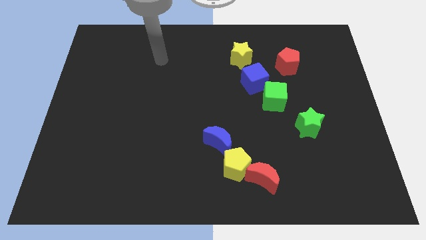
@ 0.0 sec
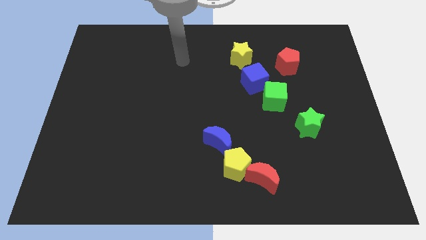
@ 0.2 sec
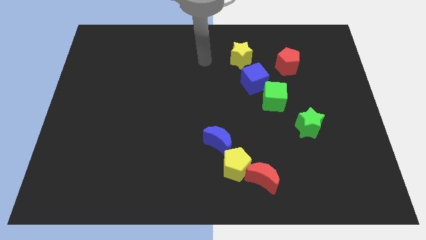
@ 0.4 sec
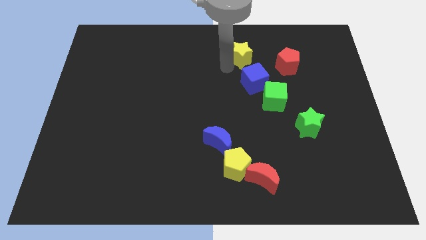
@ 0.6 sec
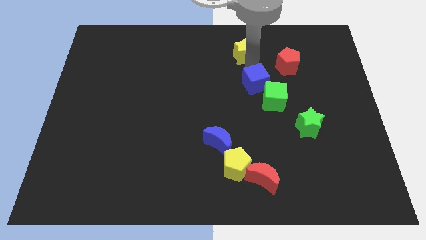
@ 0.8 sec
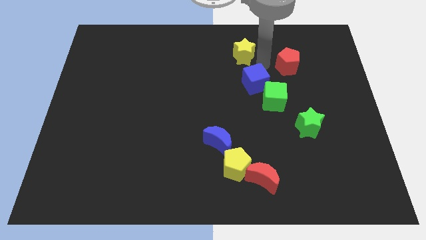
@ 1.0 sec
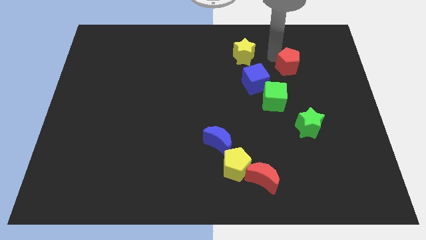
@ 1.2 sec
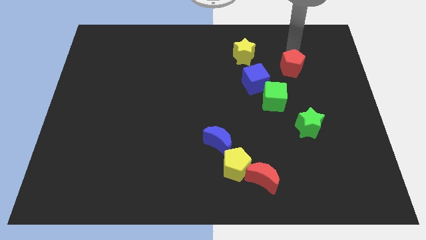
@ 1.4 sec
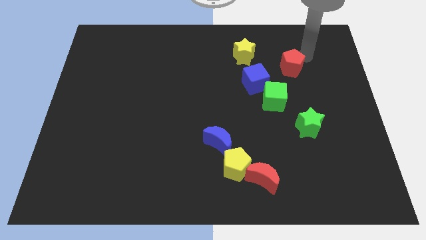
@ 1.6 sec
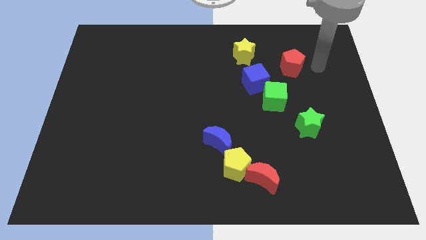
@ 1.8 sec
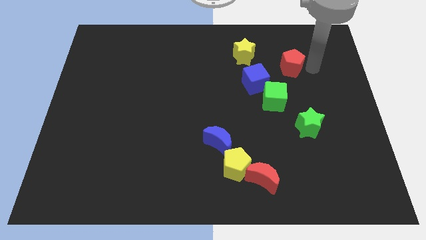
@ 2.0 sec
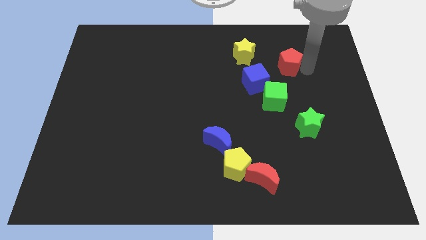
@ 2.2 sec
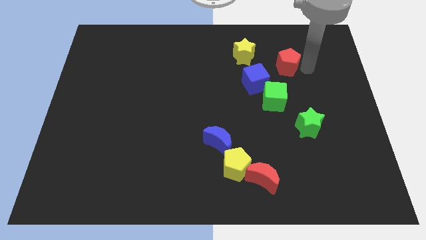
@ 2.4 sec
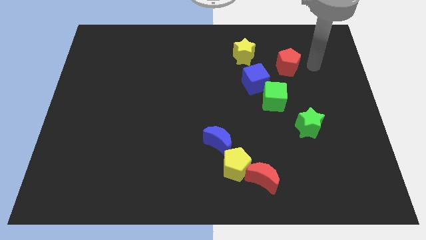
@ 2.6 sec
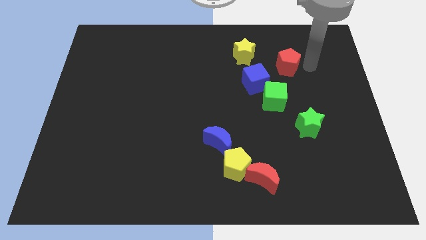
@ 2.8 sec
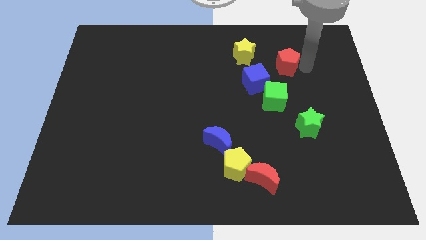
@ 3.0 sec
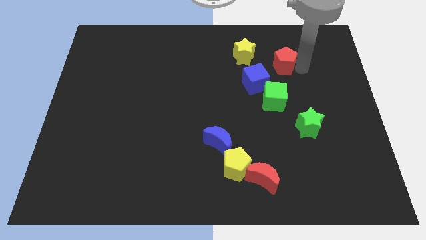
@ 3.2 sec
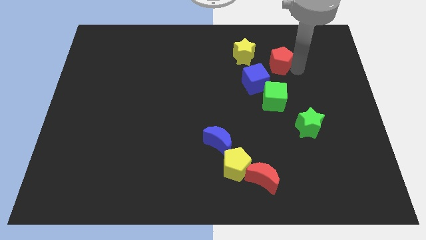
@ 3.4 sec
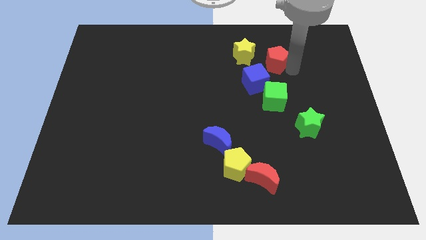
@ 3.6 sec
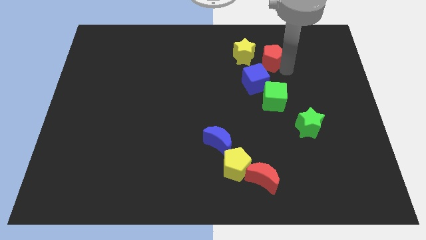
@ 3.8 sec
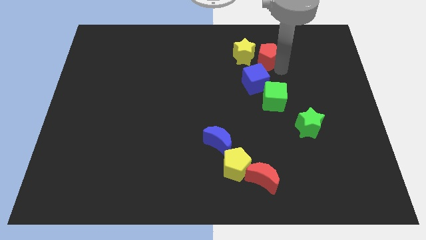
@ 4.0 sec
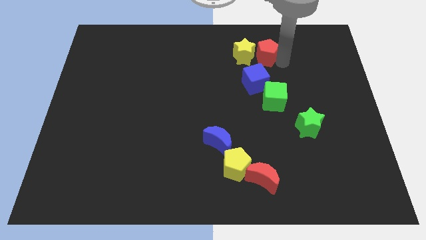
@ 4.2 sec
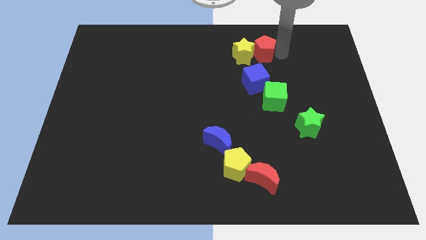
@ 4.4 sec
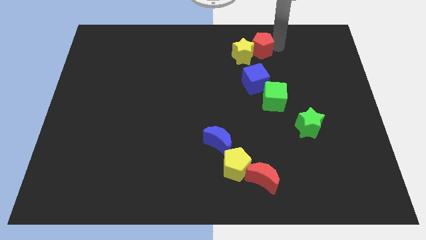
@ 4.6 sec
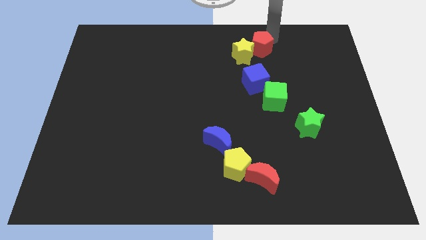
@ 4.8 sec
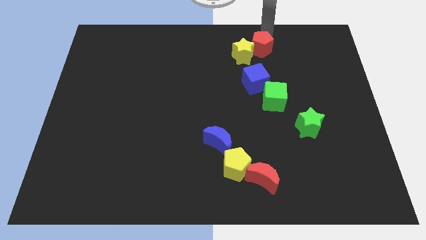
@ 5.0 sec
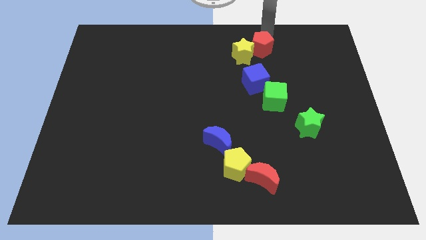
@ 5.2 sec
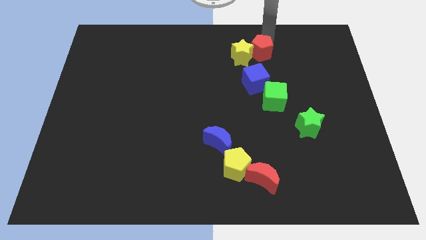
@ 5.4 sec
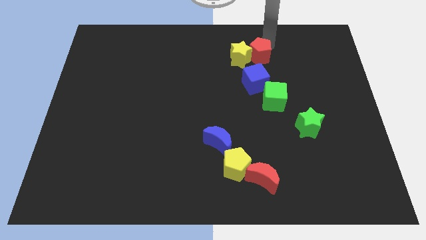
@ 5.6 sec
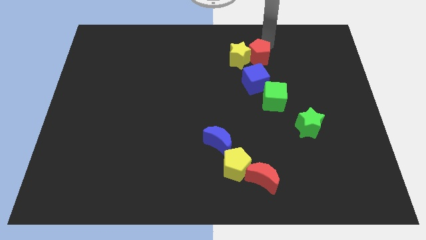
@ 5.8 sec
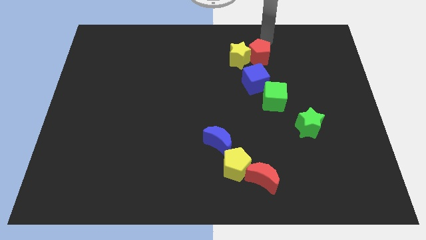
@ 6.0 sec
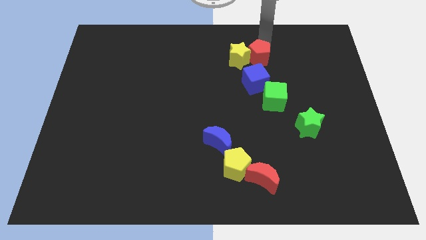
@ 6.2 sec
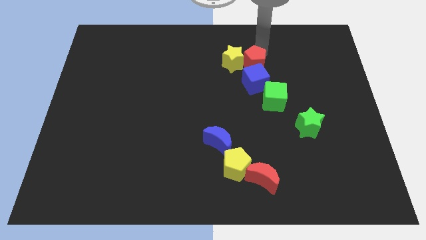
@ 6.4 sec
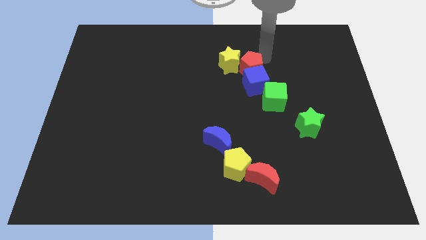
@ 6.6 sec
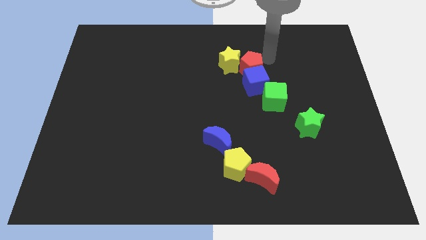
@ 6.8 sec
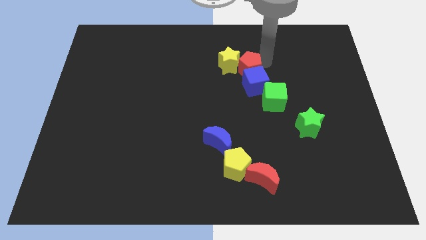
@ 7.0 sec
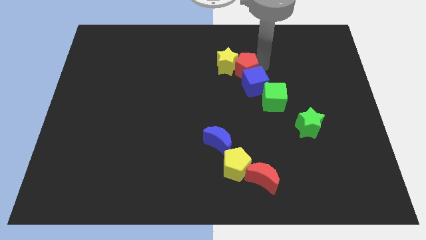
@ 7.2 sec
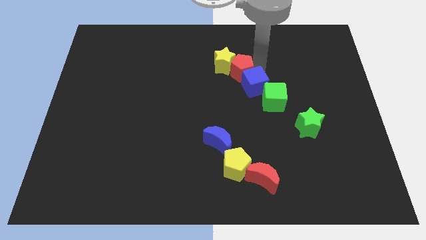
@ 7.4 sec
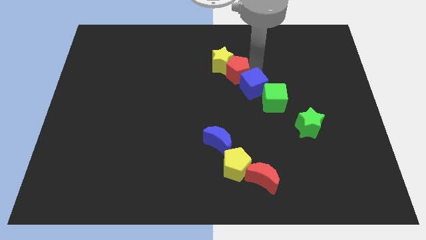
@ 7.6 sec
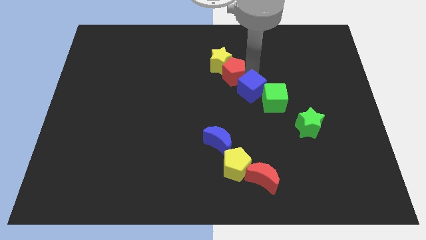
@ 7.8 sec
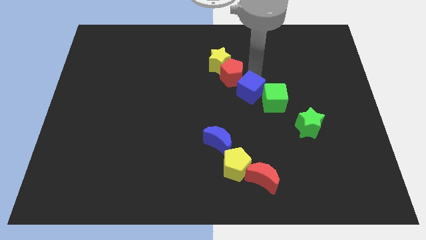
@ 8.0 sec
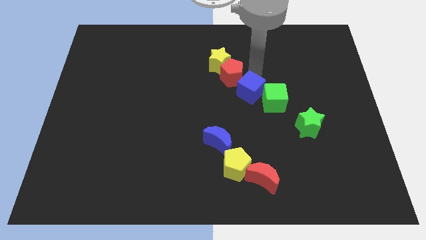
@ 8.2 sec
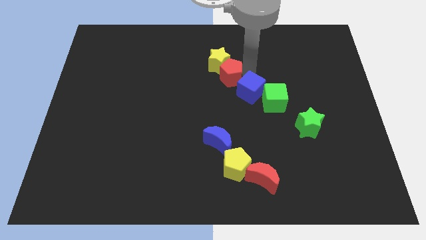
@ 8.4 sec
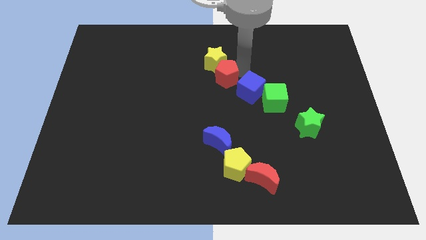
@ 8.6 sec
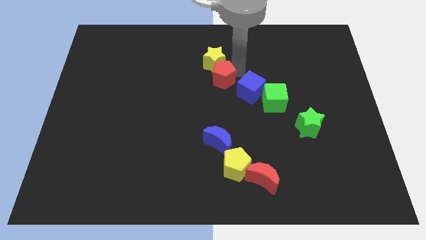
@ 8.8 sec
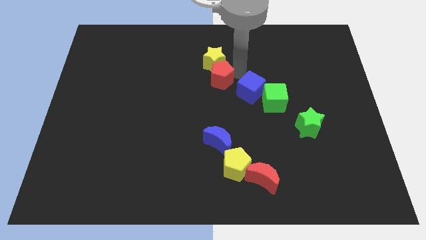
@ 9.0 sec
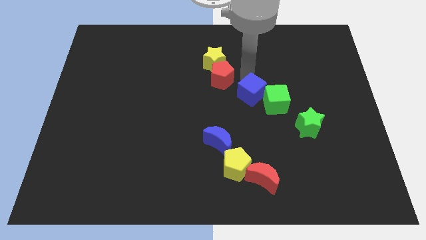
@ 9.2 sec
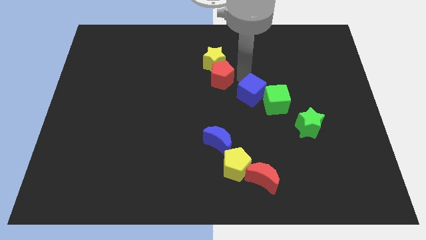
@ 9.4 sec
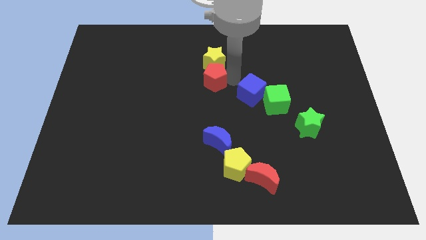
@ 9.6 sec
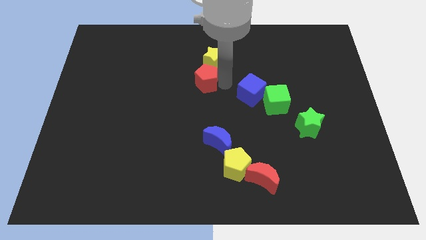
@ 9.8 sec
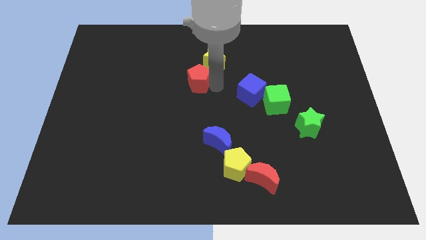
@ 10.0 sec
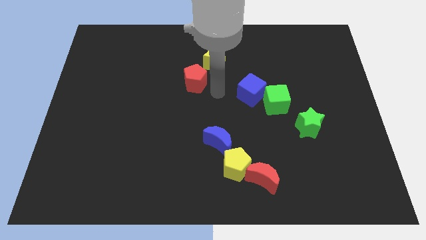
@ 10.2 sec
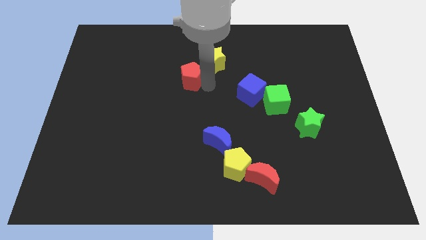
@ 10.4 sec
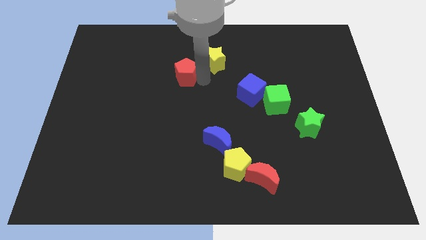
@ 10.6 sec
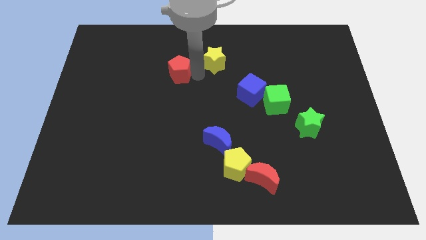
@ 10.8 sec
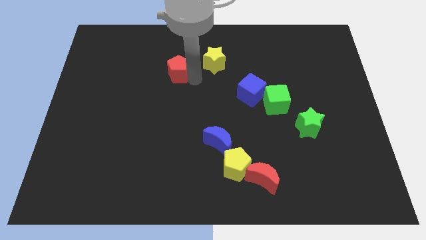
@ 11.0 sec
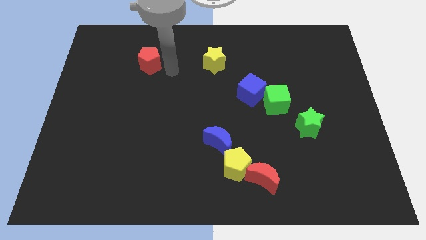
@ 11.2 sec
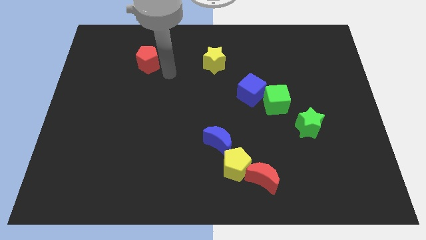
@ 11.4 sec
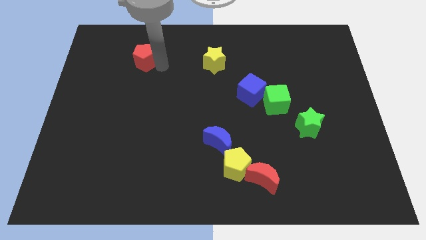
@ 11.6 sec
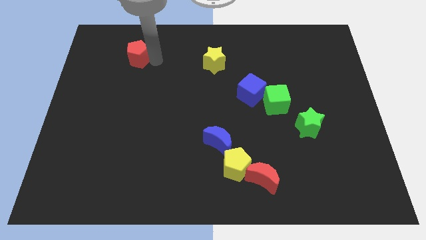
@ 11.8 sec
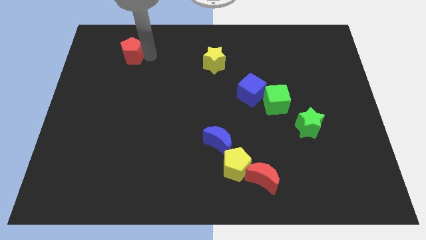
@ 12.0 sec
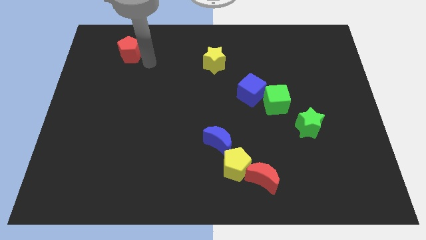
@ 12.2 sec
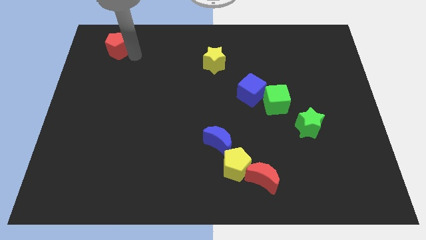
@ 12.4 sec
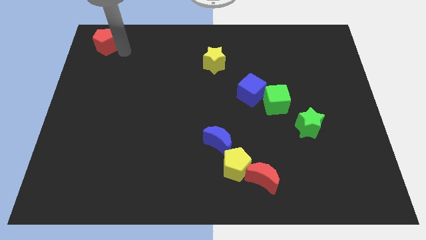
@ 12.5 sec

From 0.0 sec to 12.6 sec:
push the red pentagon to the top left corner
